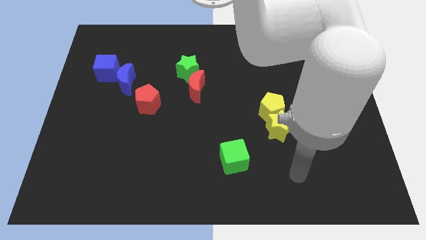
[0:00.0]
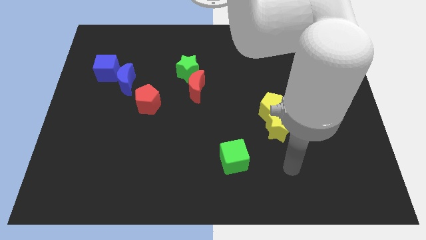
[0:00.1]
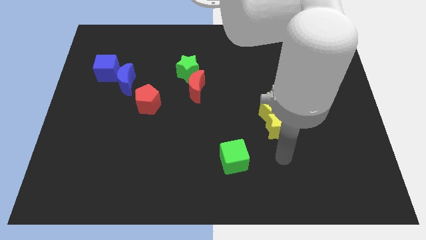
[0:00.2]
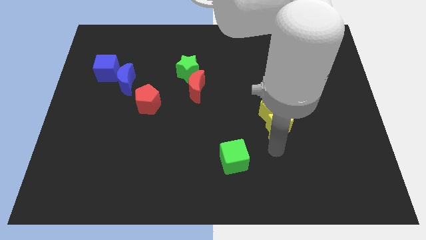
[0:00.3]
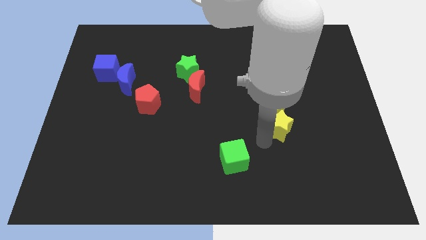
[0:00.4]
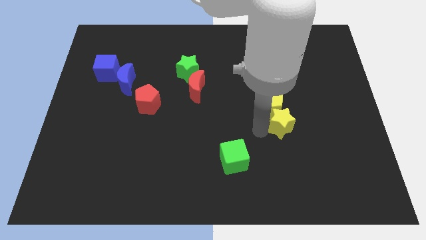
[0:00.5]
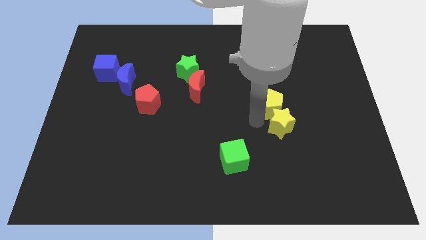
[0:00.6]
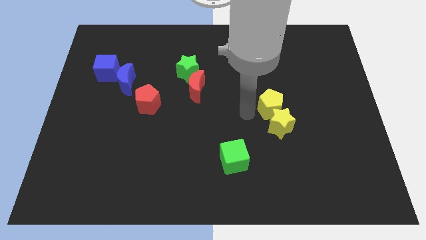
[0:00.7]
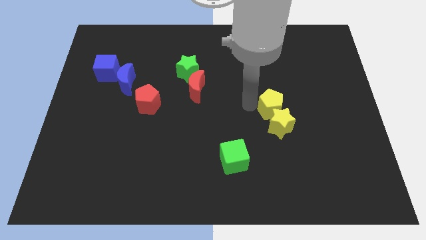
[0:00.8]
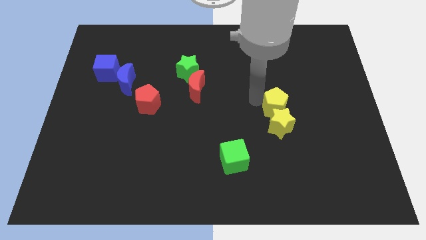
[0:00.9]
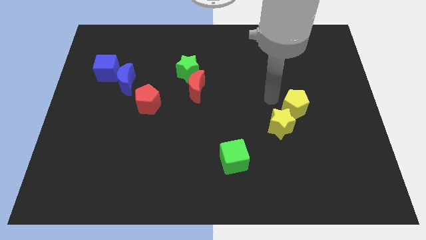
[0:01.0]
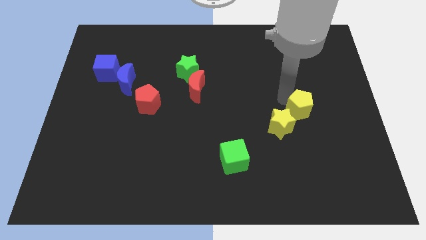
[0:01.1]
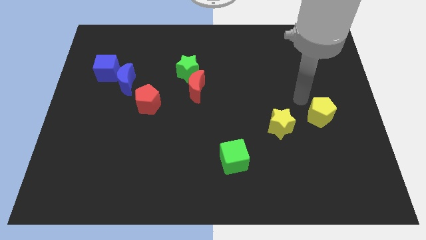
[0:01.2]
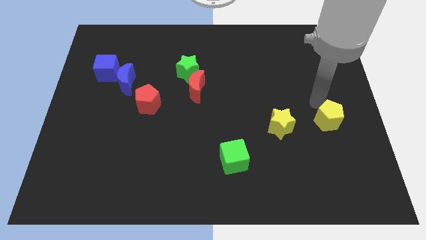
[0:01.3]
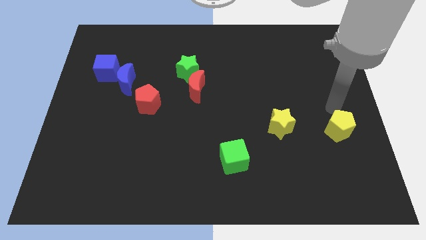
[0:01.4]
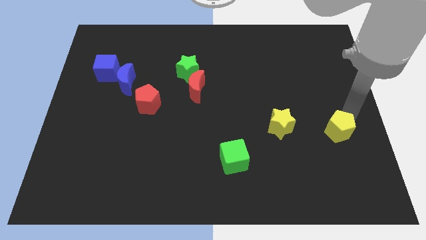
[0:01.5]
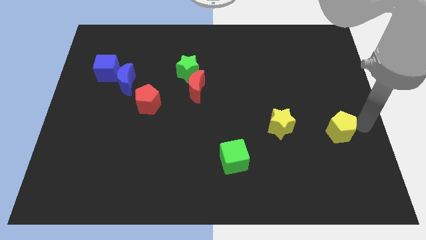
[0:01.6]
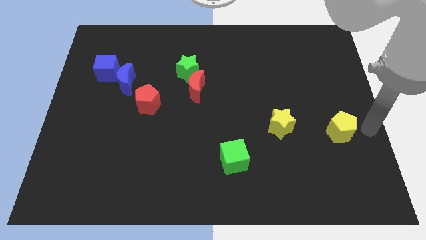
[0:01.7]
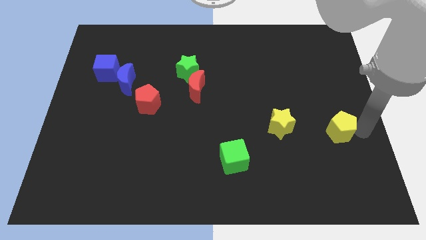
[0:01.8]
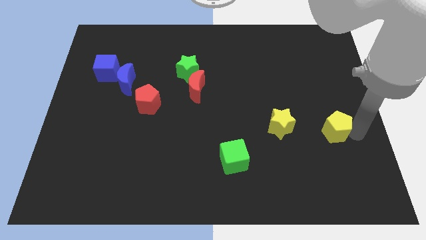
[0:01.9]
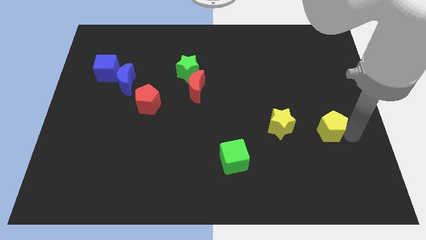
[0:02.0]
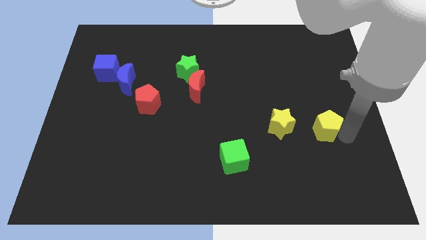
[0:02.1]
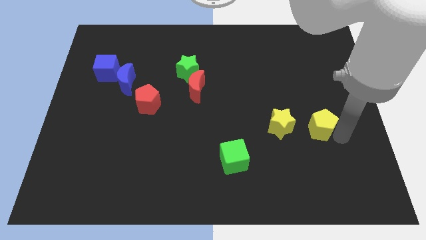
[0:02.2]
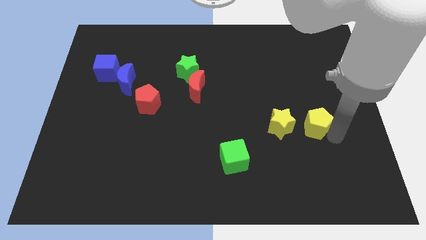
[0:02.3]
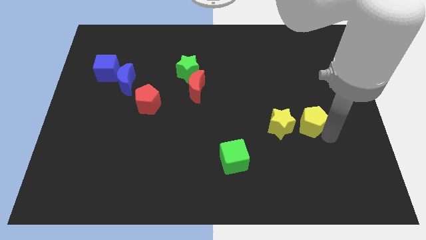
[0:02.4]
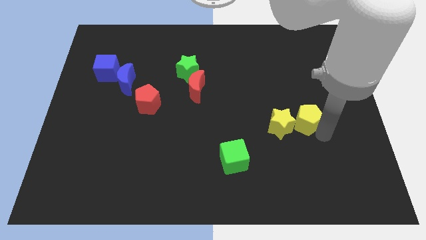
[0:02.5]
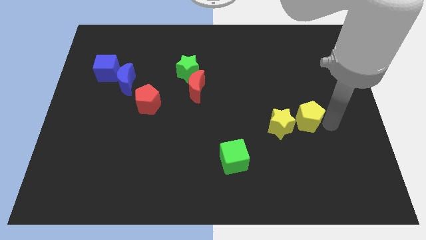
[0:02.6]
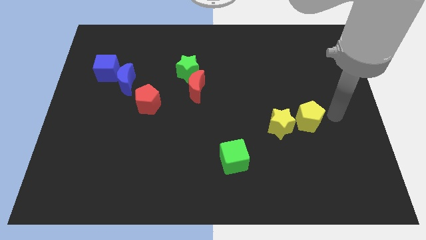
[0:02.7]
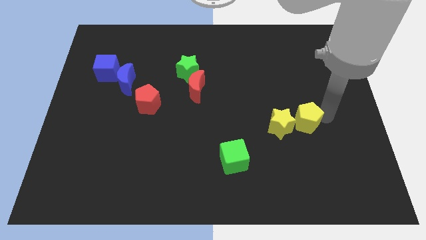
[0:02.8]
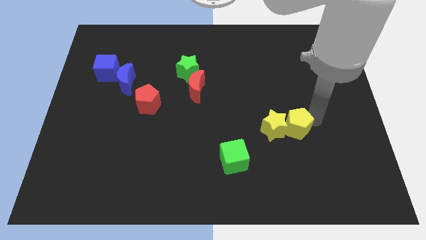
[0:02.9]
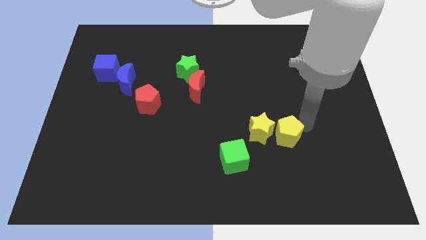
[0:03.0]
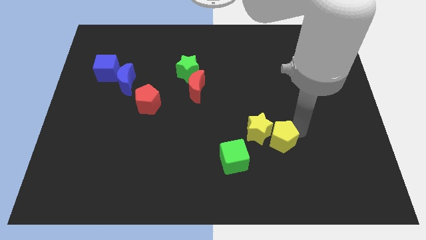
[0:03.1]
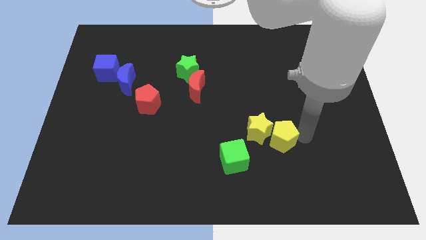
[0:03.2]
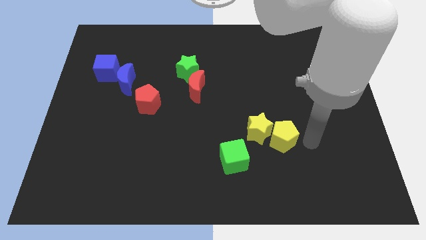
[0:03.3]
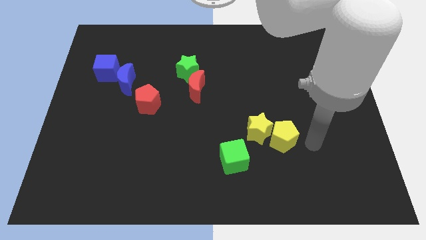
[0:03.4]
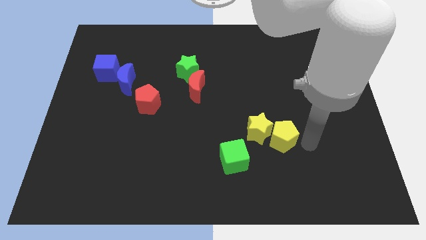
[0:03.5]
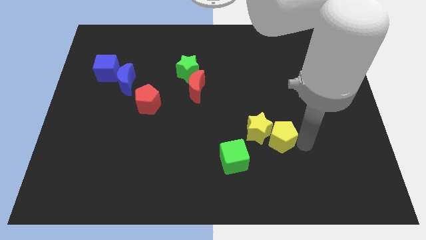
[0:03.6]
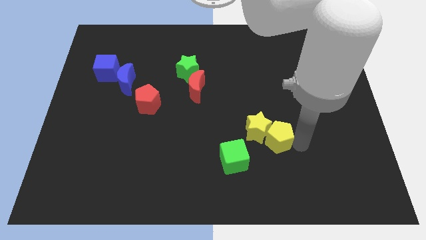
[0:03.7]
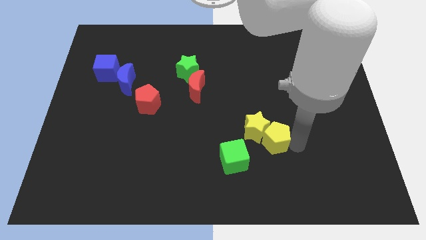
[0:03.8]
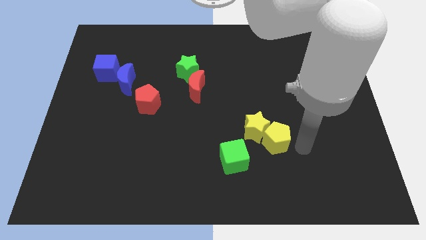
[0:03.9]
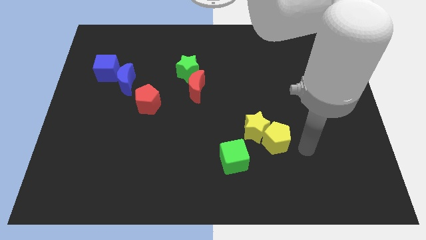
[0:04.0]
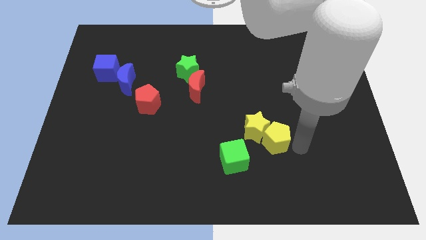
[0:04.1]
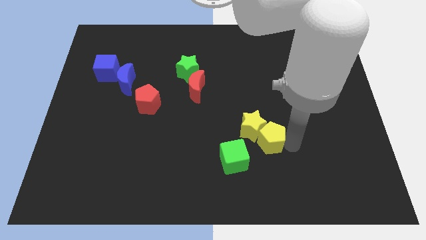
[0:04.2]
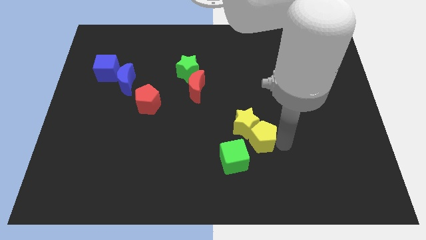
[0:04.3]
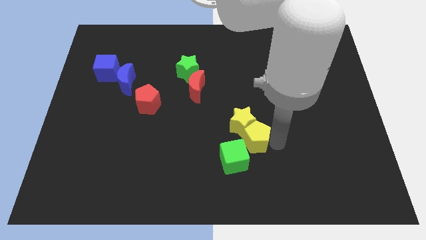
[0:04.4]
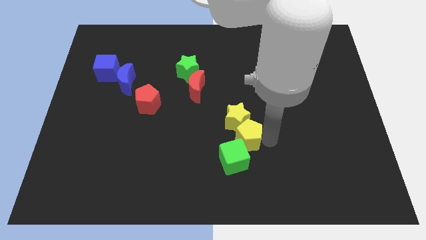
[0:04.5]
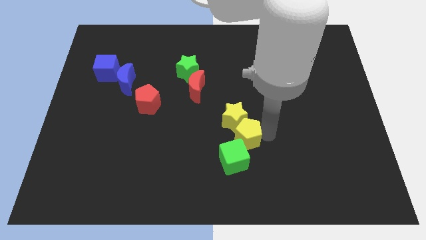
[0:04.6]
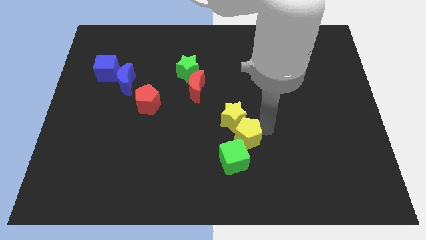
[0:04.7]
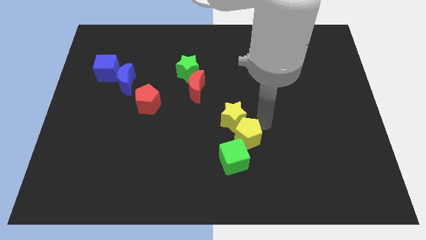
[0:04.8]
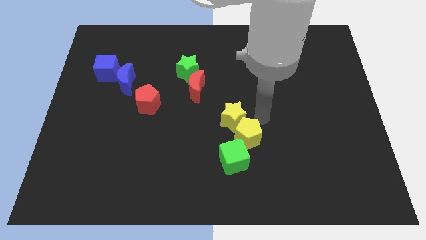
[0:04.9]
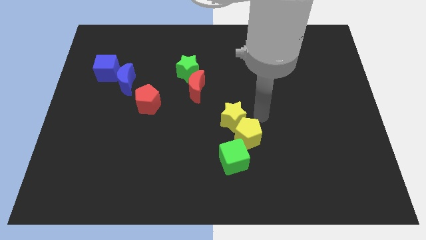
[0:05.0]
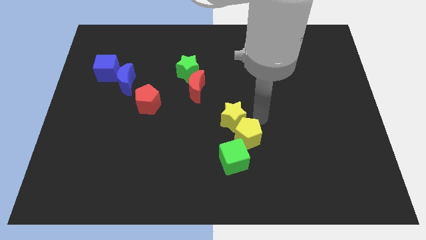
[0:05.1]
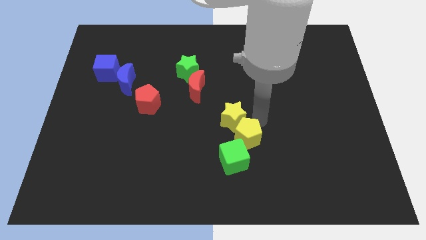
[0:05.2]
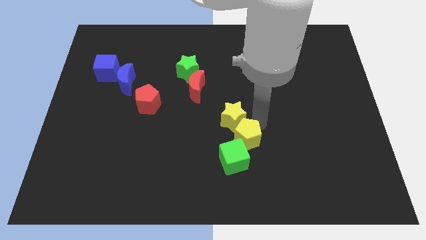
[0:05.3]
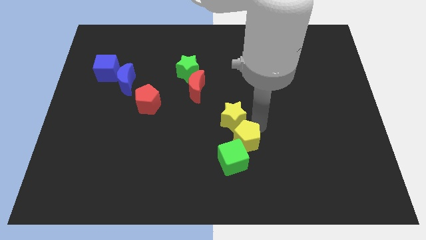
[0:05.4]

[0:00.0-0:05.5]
put the yellow pentagon close to the green cube

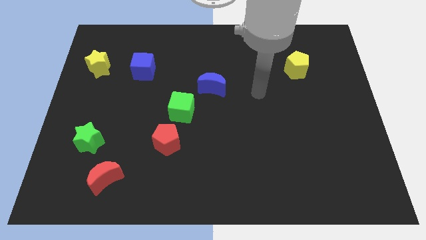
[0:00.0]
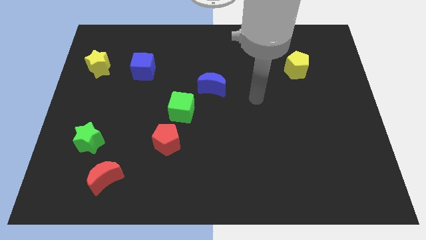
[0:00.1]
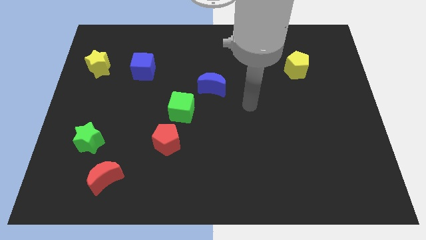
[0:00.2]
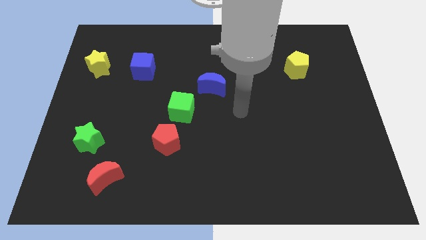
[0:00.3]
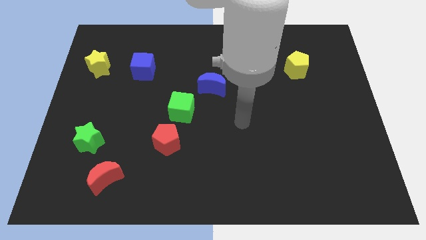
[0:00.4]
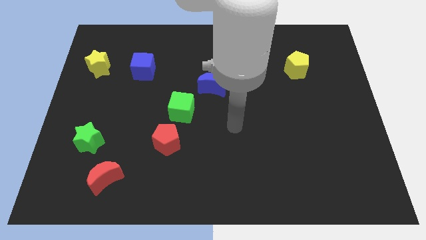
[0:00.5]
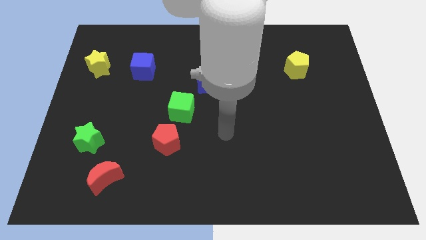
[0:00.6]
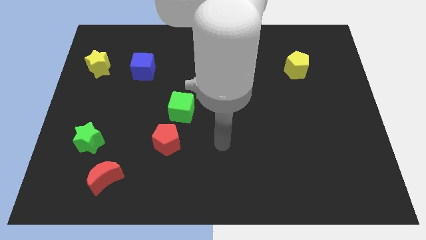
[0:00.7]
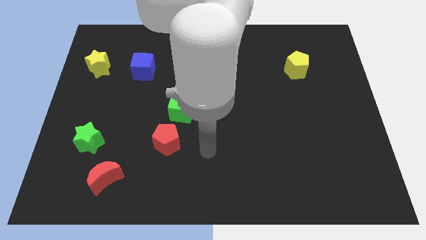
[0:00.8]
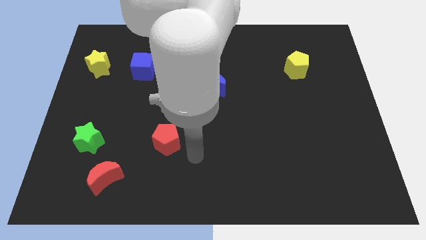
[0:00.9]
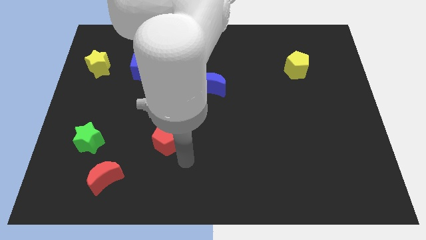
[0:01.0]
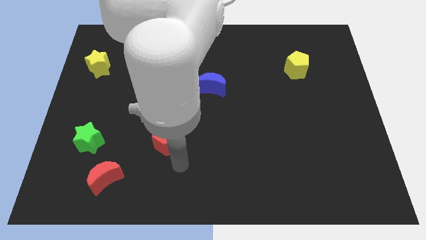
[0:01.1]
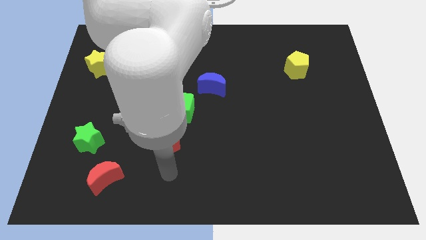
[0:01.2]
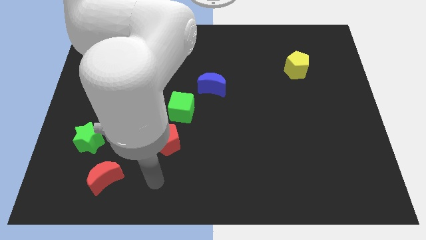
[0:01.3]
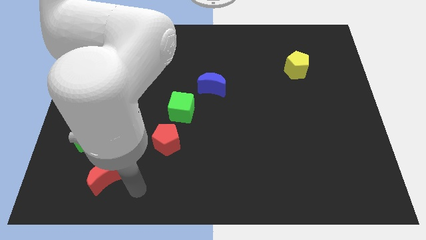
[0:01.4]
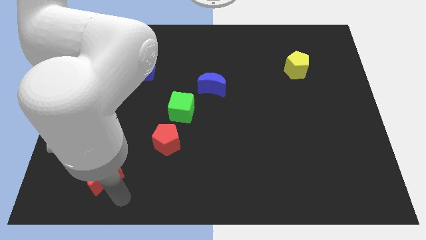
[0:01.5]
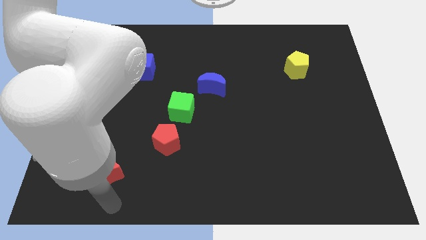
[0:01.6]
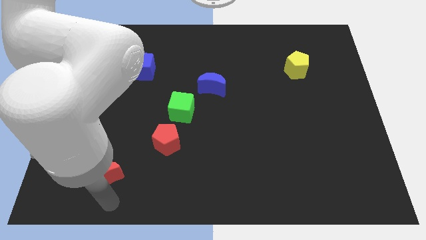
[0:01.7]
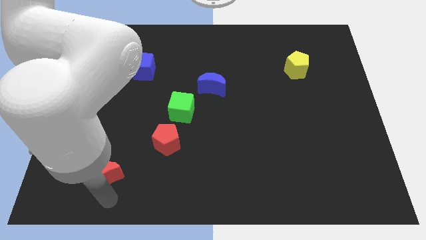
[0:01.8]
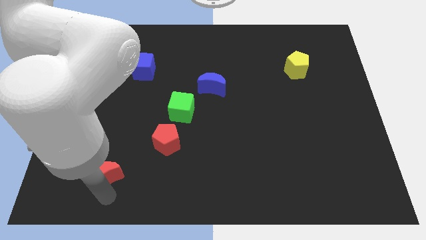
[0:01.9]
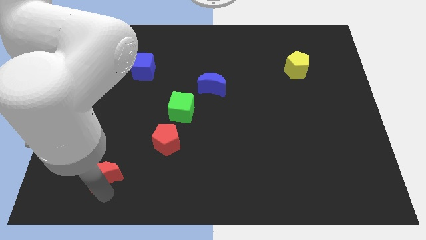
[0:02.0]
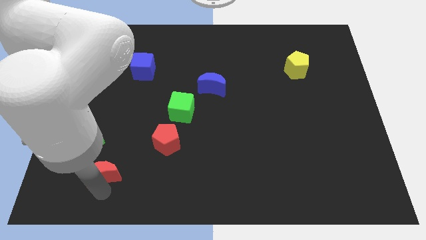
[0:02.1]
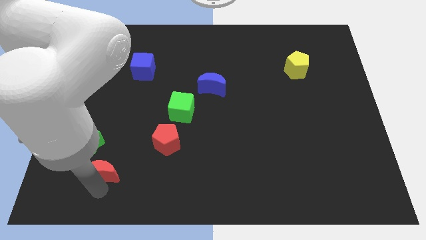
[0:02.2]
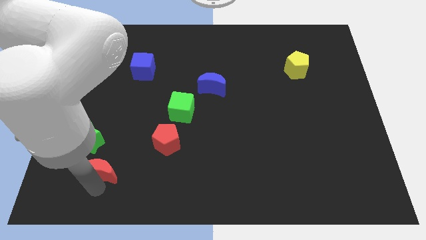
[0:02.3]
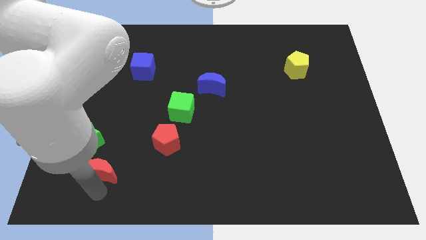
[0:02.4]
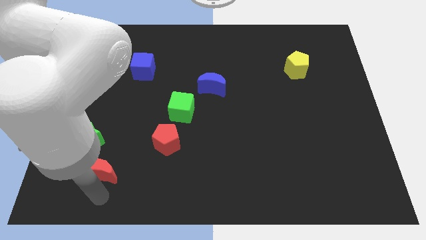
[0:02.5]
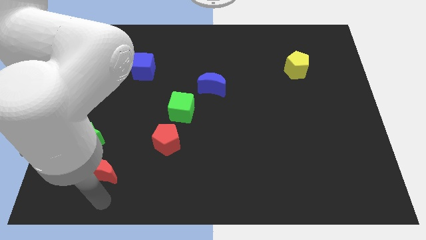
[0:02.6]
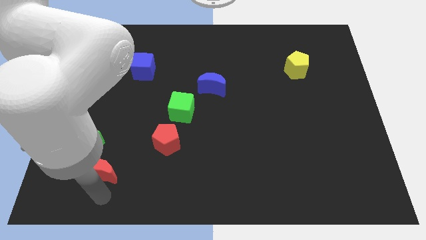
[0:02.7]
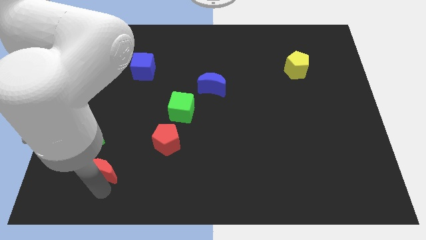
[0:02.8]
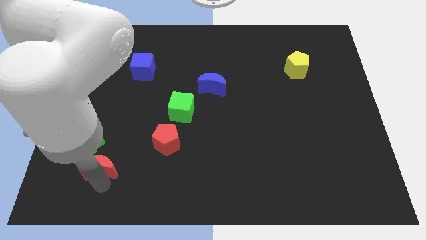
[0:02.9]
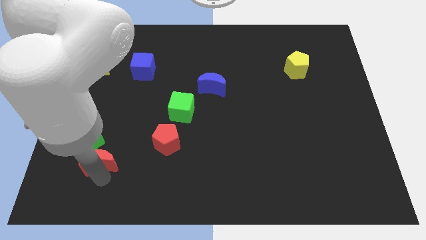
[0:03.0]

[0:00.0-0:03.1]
put the red moon next to the green star
